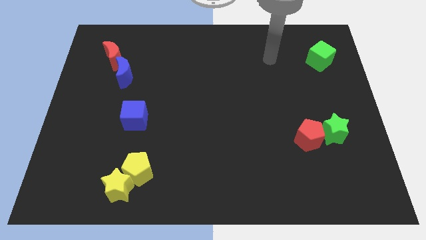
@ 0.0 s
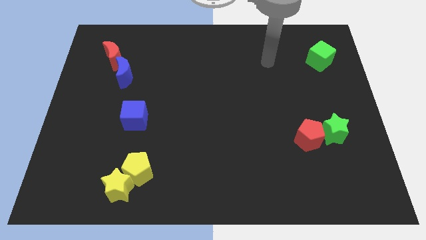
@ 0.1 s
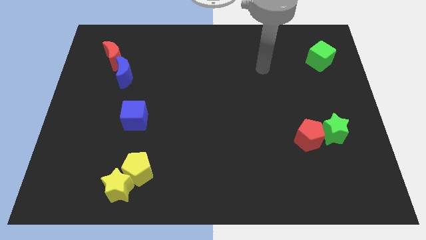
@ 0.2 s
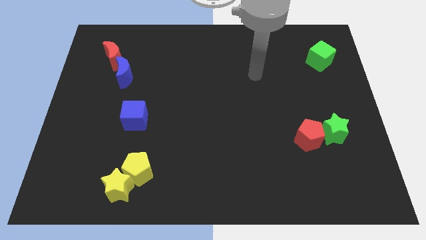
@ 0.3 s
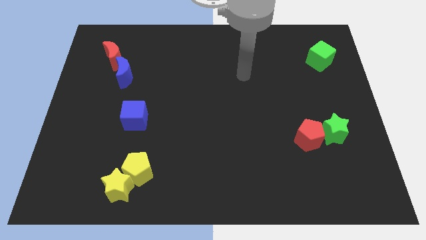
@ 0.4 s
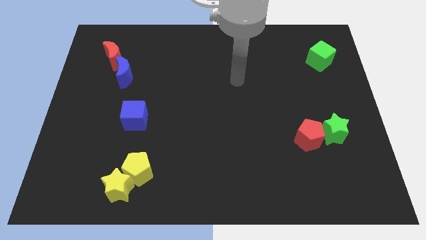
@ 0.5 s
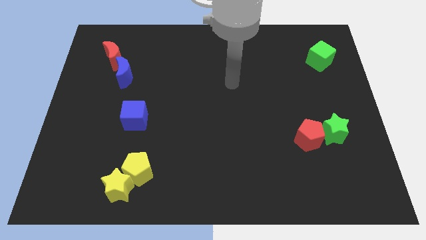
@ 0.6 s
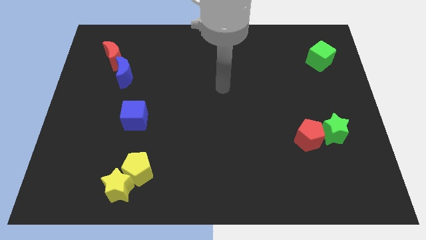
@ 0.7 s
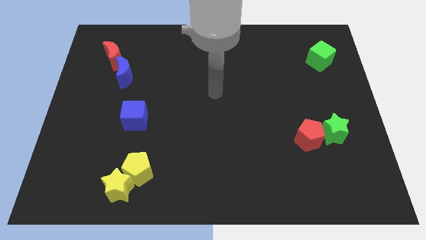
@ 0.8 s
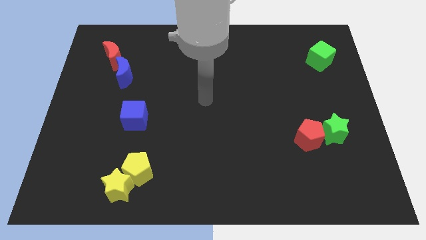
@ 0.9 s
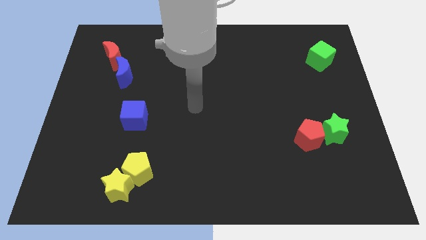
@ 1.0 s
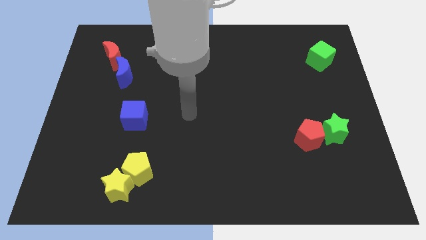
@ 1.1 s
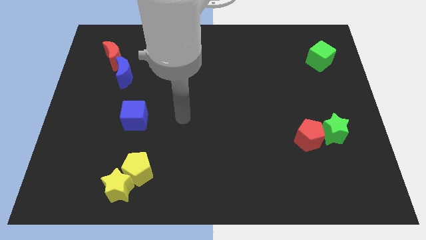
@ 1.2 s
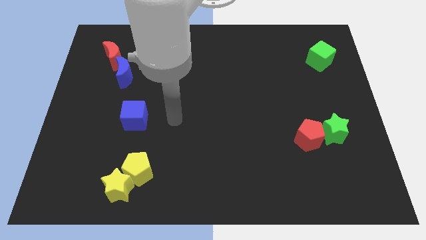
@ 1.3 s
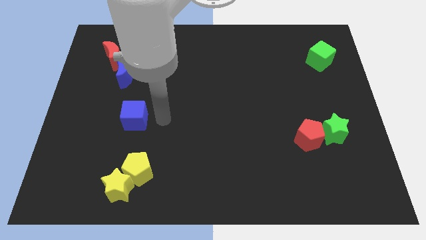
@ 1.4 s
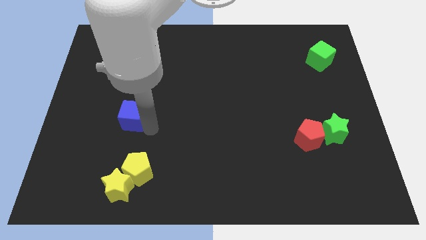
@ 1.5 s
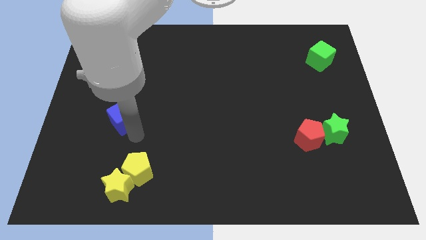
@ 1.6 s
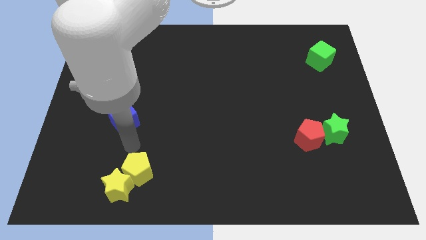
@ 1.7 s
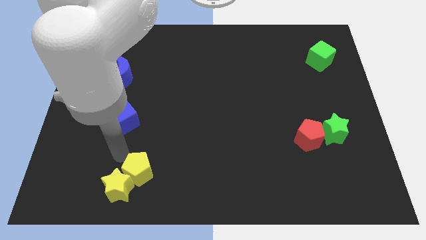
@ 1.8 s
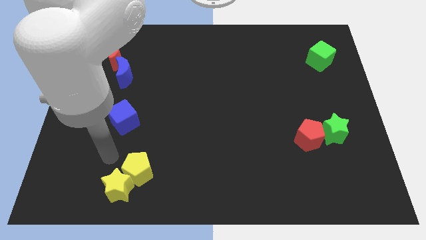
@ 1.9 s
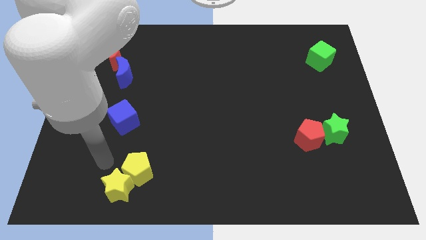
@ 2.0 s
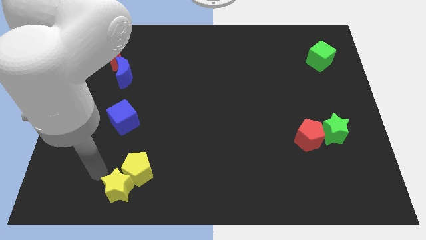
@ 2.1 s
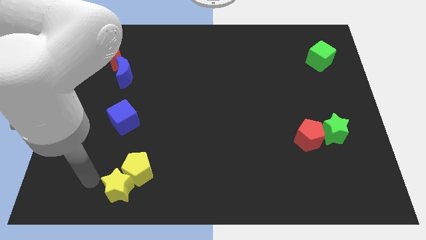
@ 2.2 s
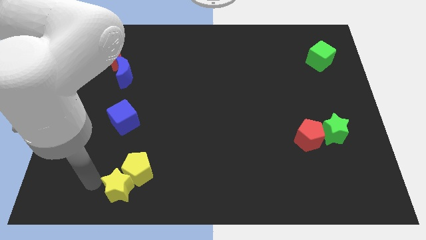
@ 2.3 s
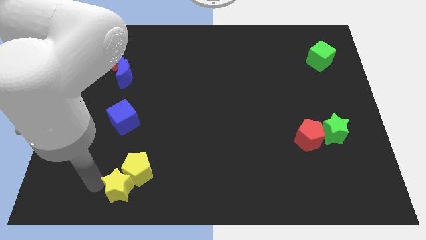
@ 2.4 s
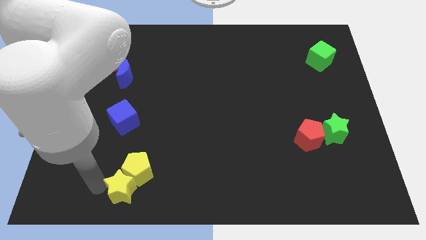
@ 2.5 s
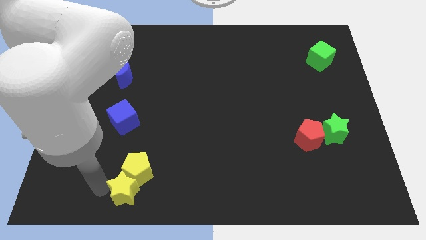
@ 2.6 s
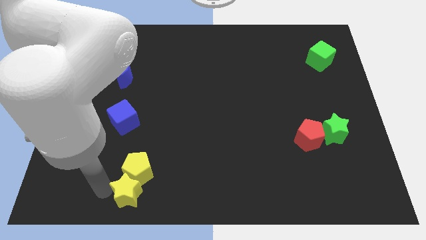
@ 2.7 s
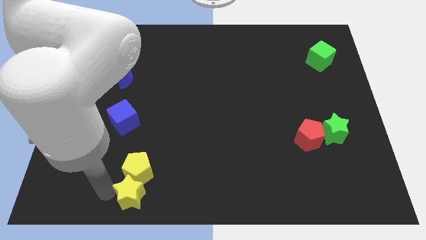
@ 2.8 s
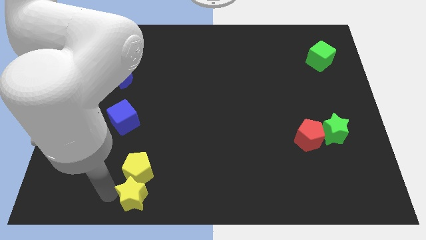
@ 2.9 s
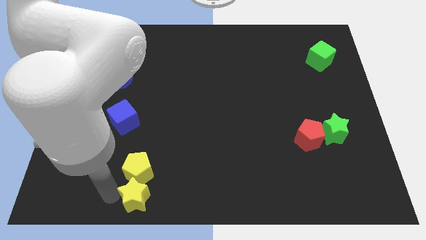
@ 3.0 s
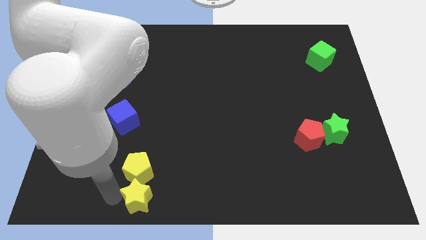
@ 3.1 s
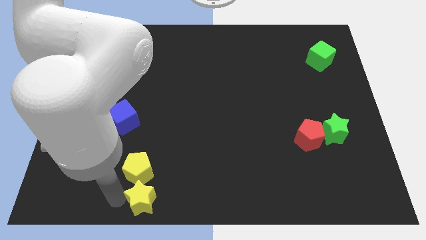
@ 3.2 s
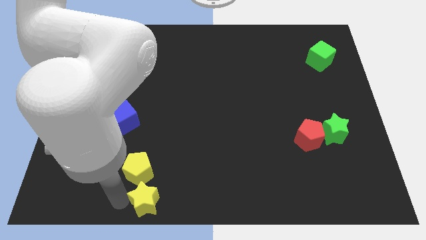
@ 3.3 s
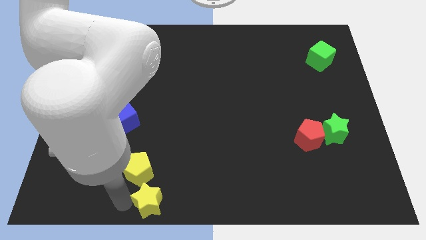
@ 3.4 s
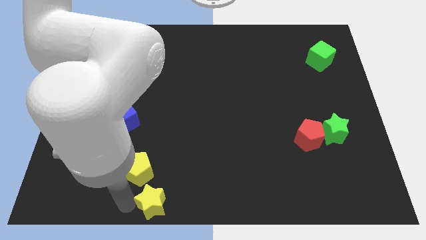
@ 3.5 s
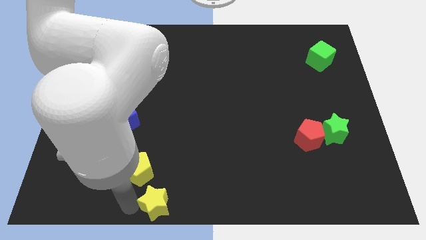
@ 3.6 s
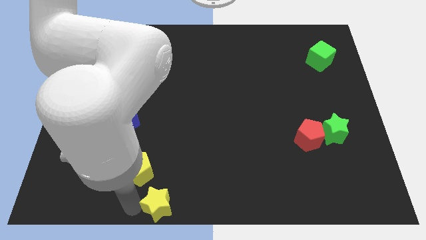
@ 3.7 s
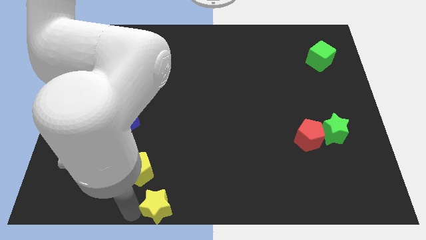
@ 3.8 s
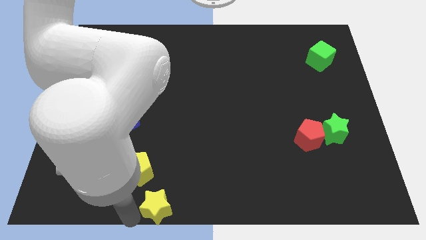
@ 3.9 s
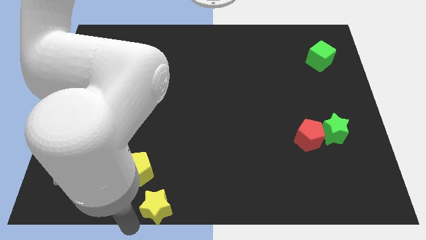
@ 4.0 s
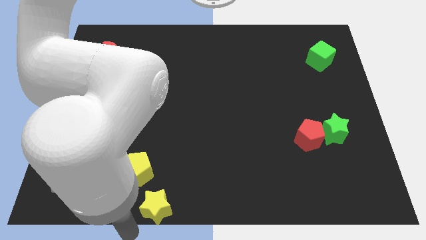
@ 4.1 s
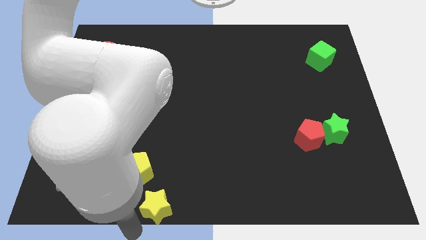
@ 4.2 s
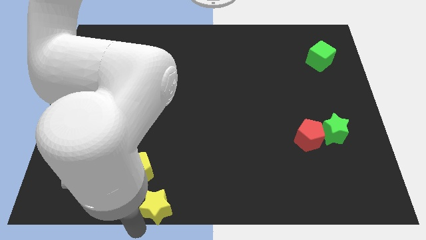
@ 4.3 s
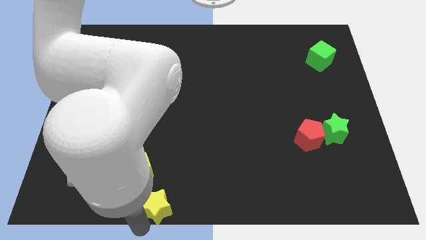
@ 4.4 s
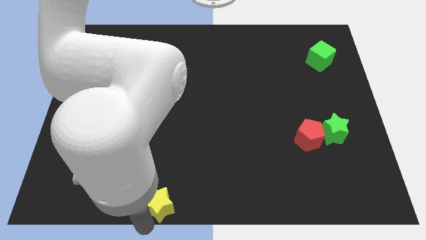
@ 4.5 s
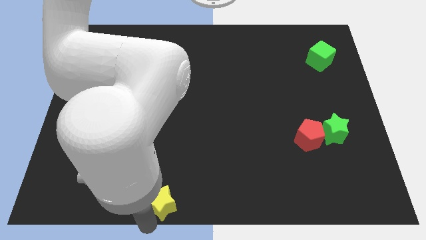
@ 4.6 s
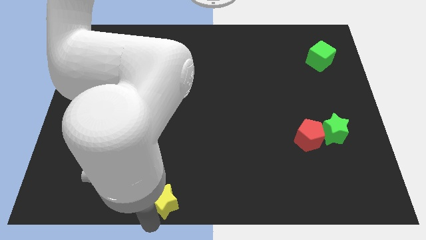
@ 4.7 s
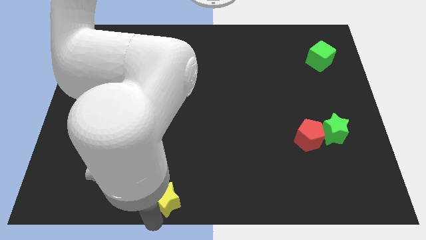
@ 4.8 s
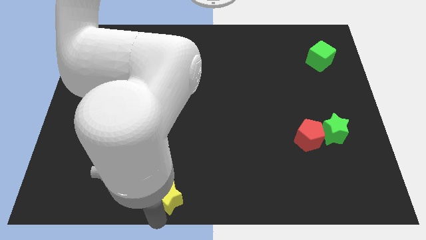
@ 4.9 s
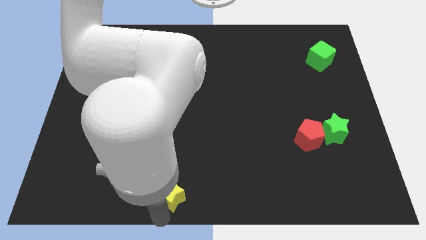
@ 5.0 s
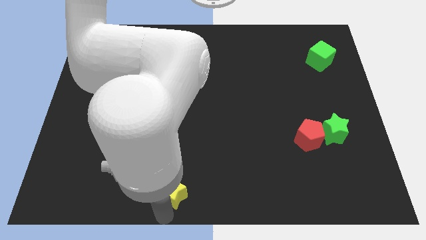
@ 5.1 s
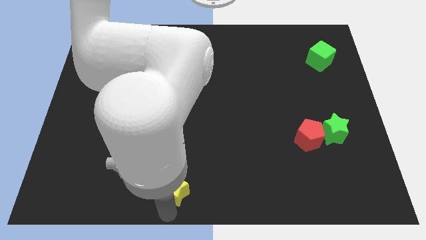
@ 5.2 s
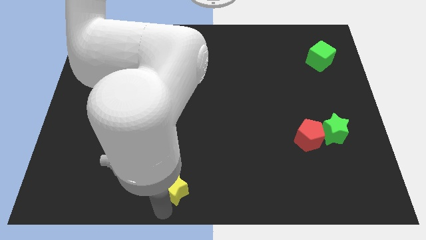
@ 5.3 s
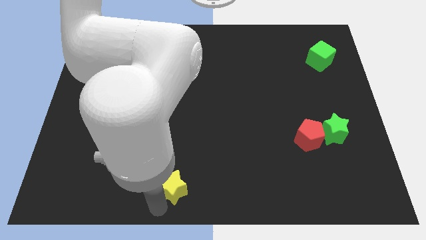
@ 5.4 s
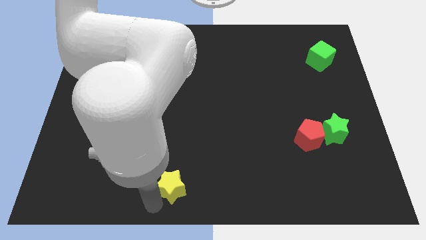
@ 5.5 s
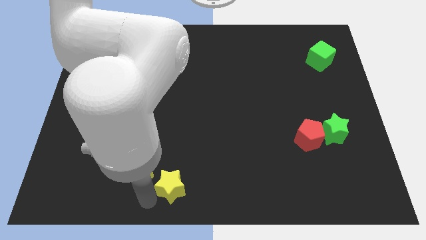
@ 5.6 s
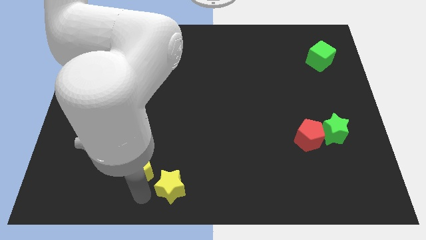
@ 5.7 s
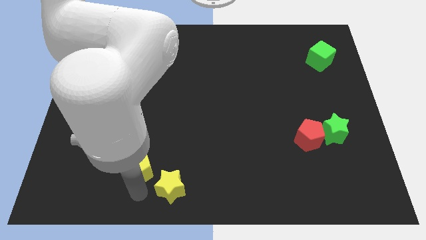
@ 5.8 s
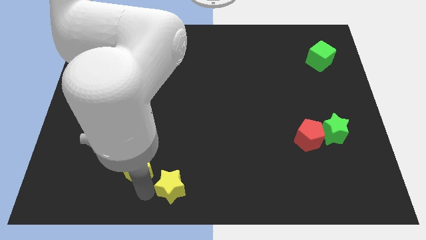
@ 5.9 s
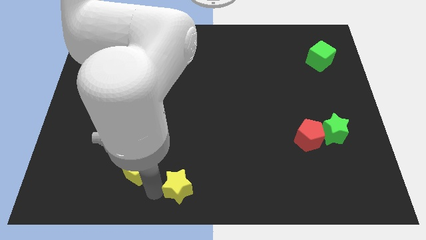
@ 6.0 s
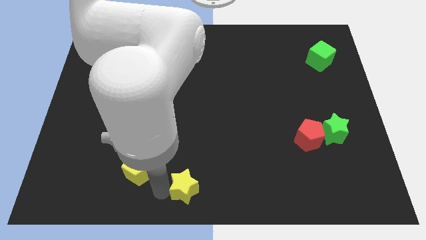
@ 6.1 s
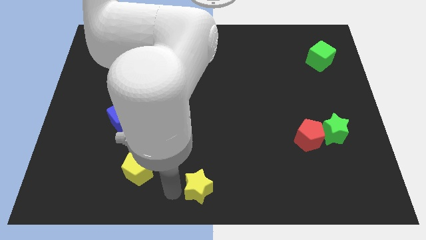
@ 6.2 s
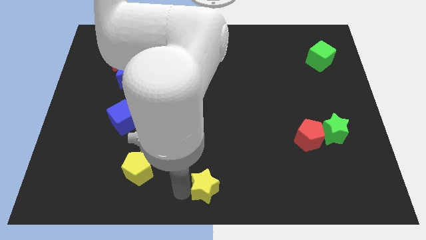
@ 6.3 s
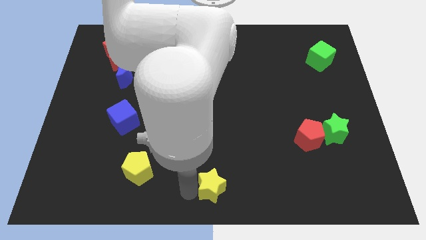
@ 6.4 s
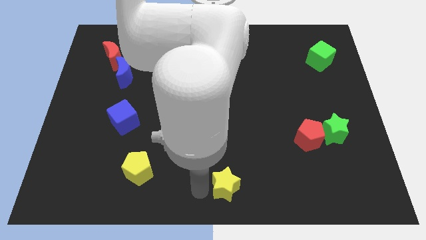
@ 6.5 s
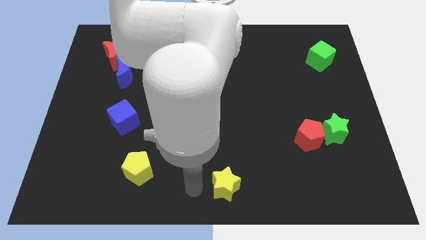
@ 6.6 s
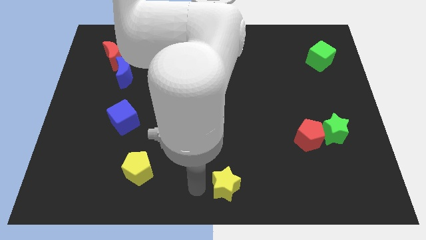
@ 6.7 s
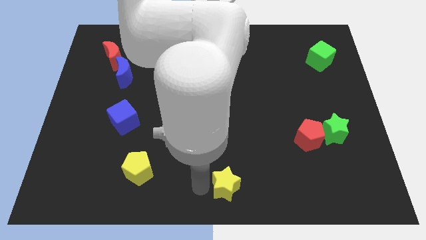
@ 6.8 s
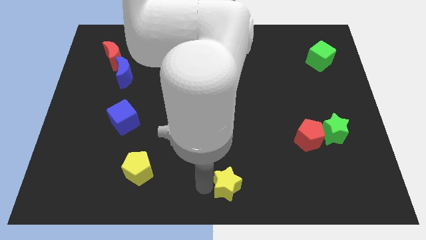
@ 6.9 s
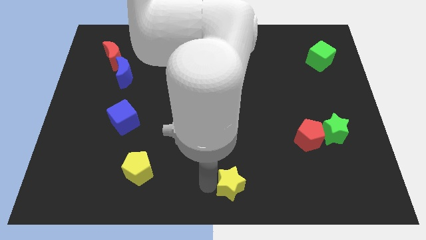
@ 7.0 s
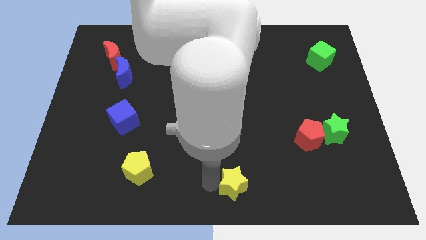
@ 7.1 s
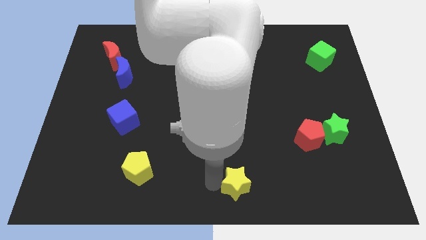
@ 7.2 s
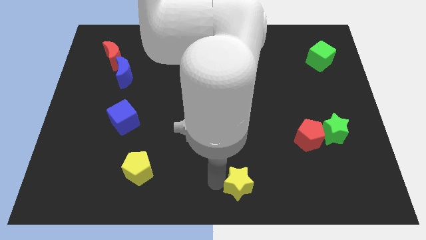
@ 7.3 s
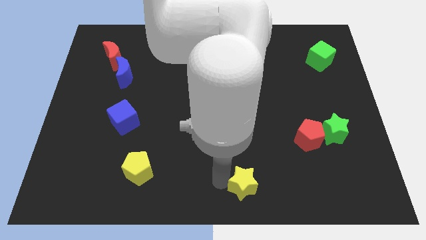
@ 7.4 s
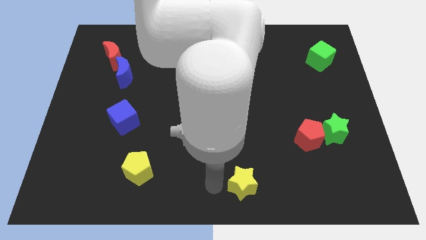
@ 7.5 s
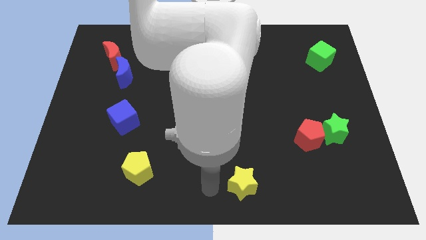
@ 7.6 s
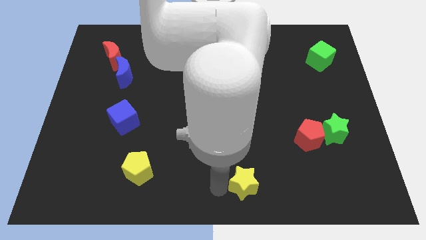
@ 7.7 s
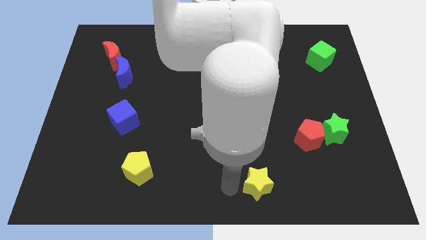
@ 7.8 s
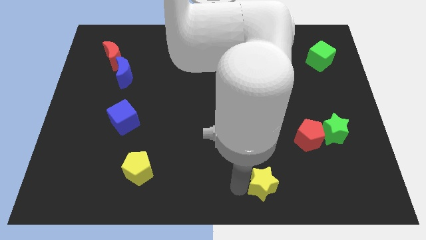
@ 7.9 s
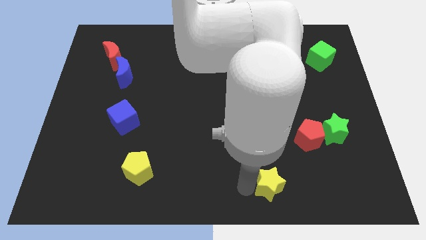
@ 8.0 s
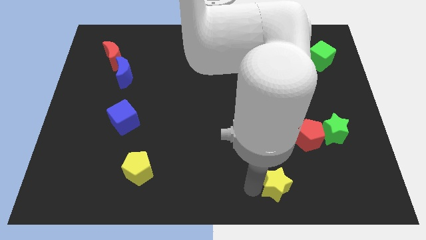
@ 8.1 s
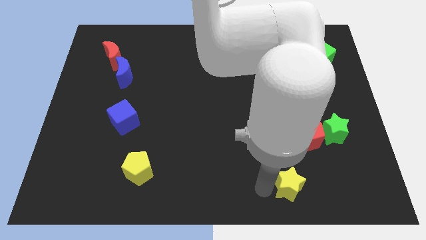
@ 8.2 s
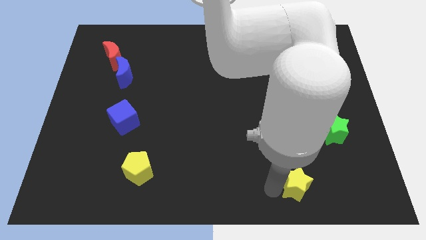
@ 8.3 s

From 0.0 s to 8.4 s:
move the yellow star to the bottom of the red pentagon
